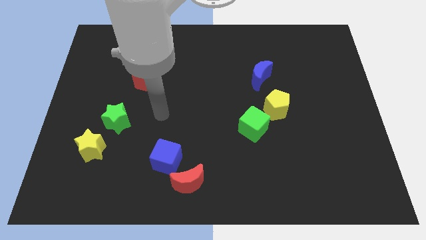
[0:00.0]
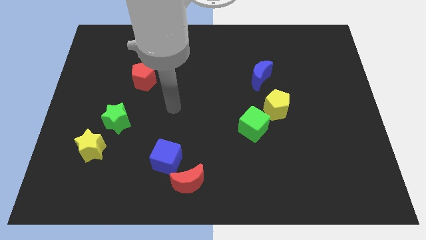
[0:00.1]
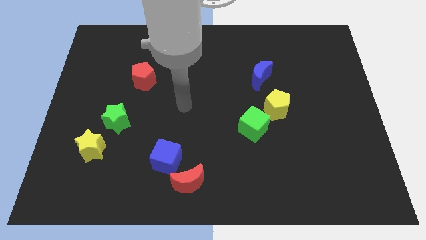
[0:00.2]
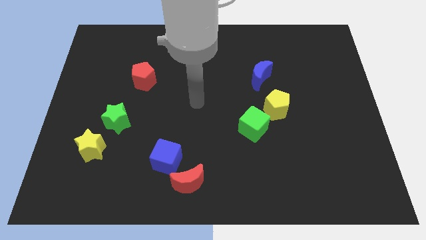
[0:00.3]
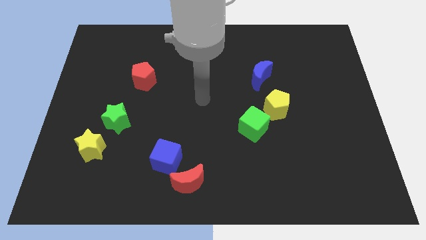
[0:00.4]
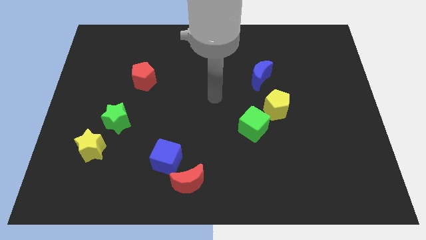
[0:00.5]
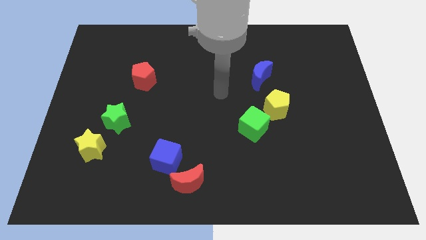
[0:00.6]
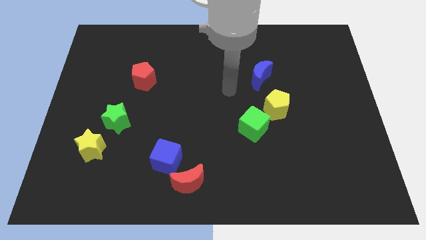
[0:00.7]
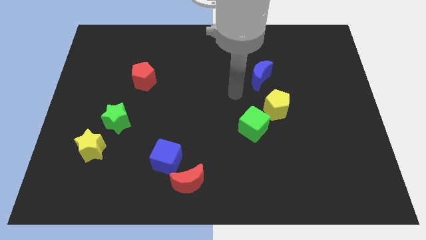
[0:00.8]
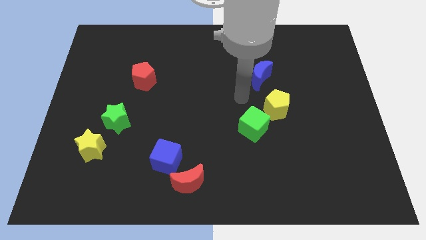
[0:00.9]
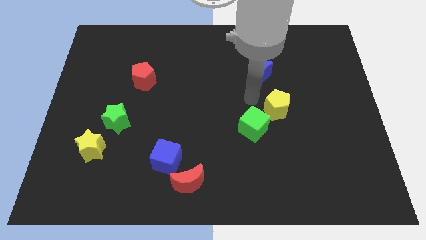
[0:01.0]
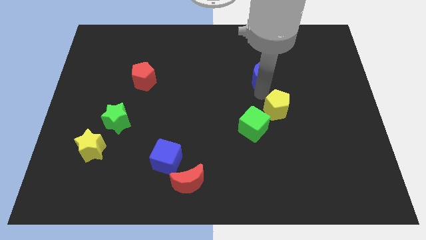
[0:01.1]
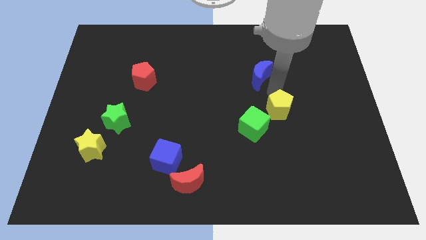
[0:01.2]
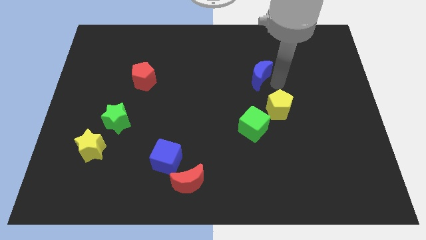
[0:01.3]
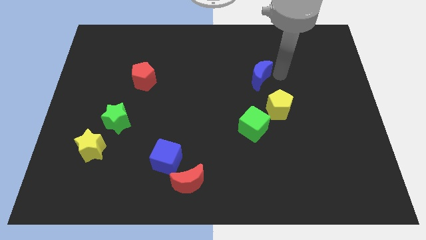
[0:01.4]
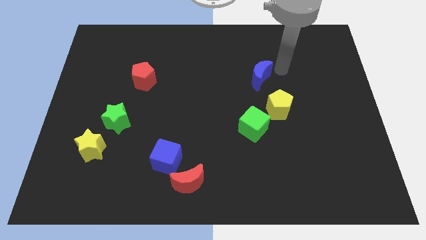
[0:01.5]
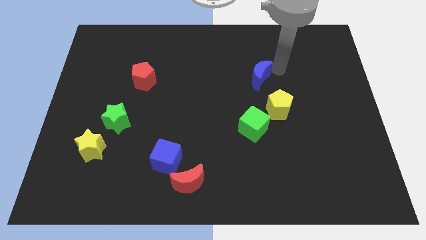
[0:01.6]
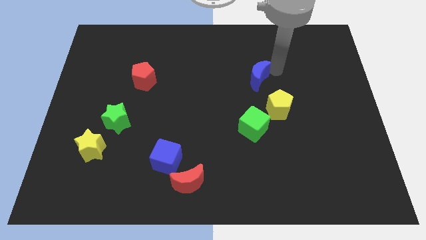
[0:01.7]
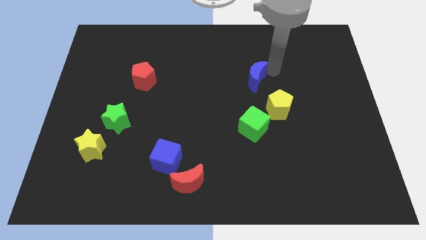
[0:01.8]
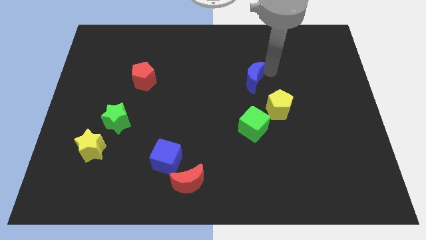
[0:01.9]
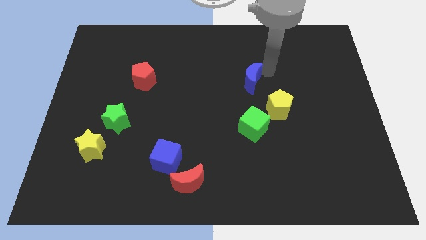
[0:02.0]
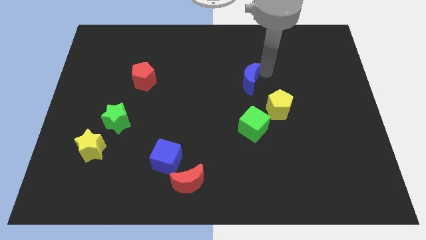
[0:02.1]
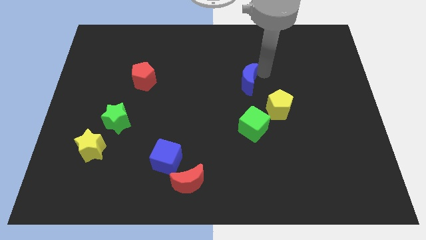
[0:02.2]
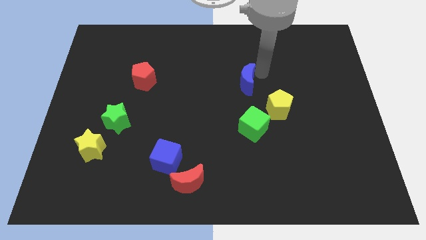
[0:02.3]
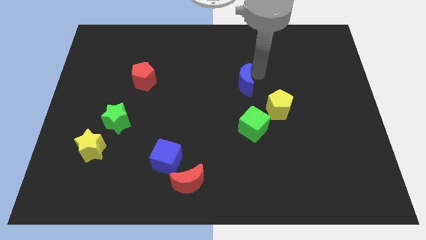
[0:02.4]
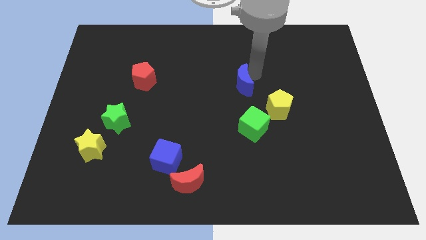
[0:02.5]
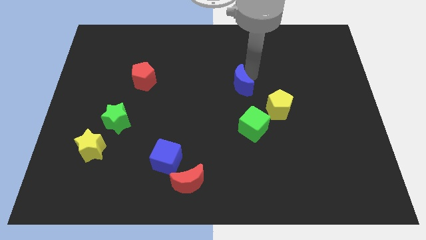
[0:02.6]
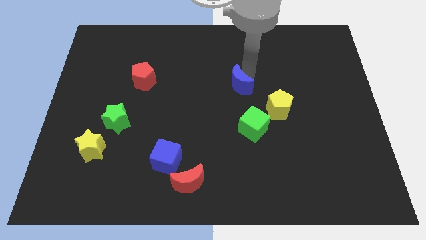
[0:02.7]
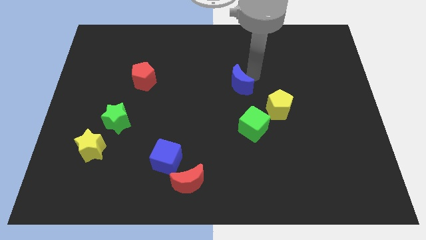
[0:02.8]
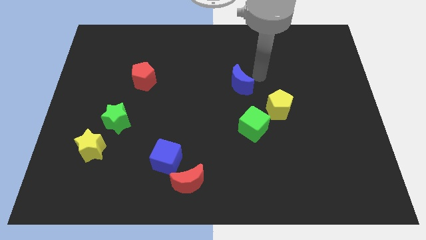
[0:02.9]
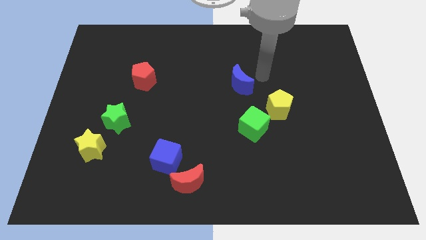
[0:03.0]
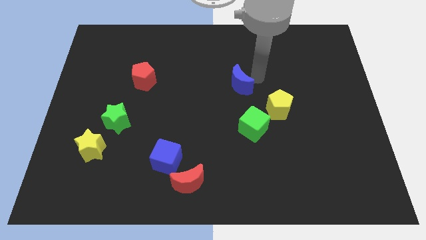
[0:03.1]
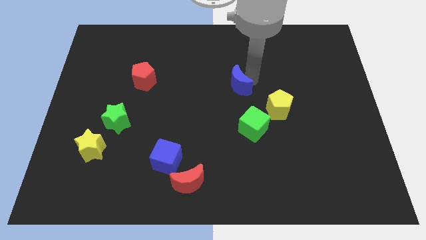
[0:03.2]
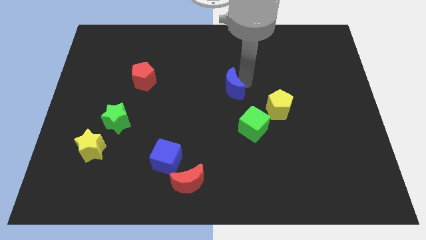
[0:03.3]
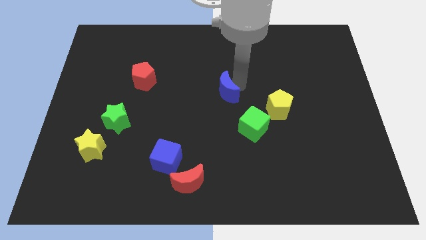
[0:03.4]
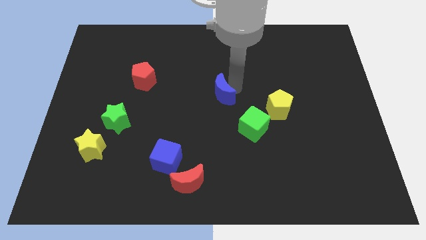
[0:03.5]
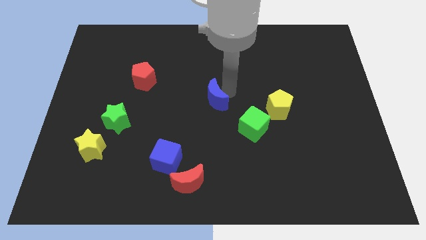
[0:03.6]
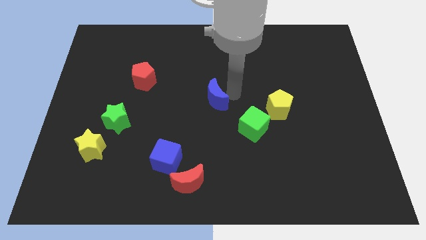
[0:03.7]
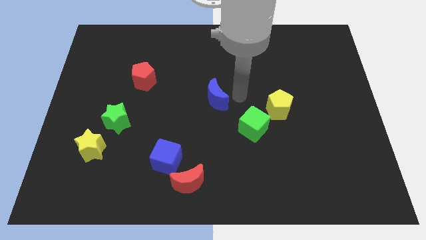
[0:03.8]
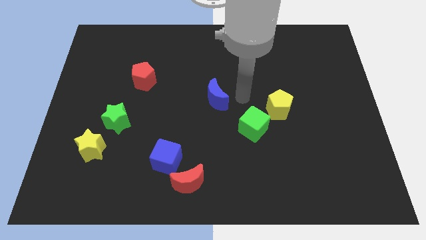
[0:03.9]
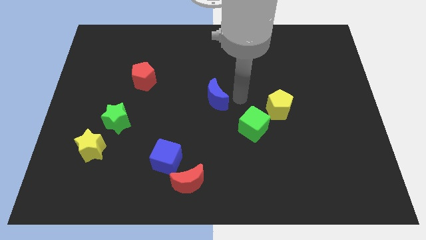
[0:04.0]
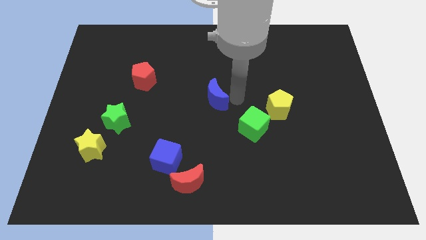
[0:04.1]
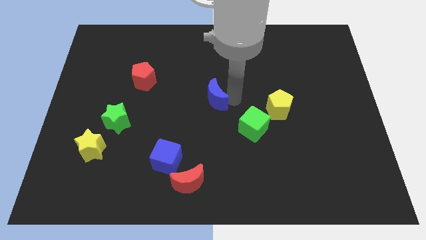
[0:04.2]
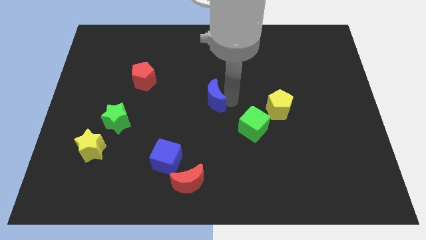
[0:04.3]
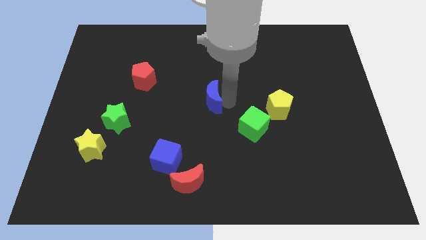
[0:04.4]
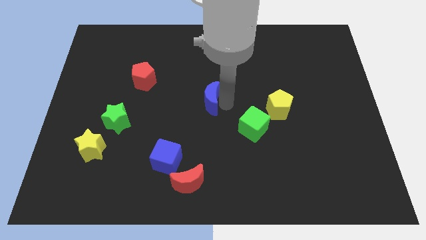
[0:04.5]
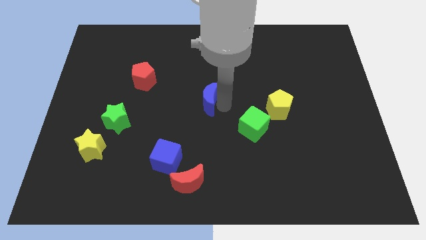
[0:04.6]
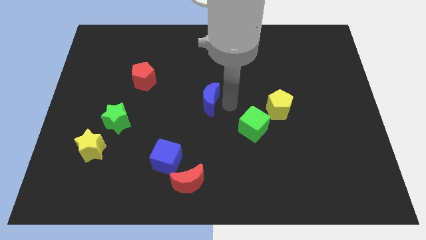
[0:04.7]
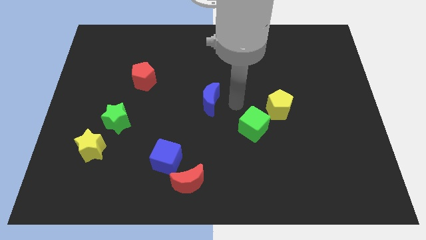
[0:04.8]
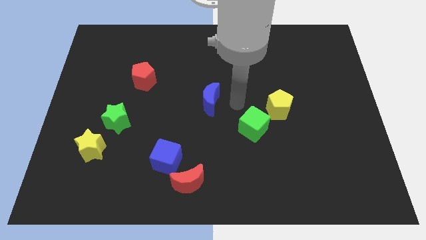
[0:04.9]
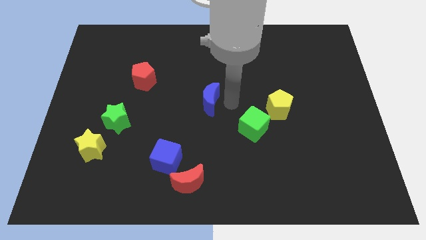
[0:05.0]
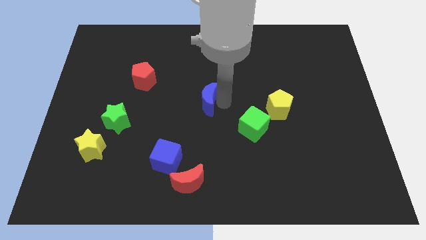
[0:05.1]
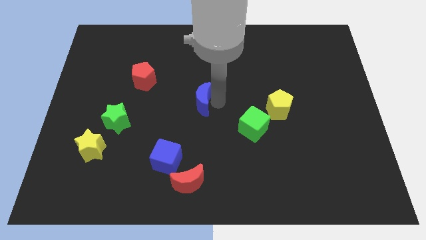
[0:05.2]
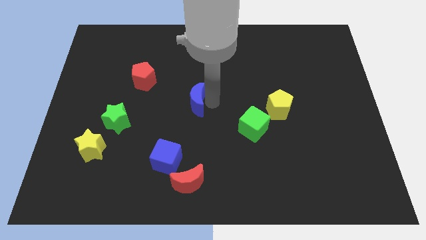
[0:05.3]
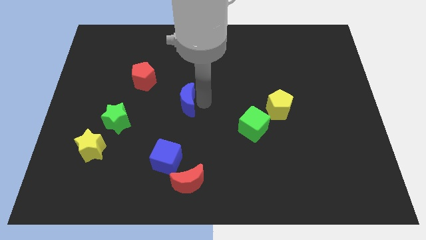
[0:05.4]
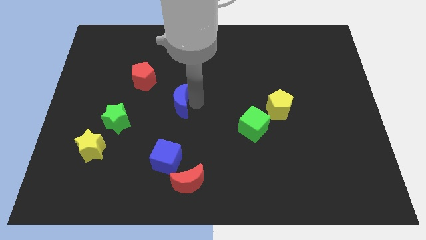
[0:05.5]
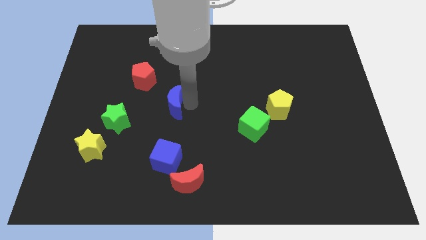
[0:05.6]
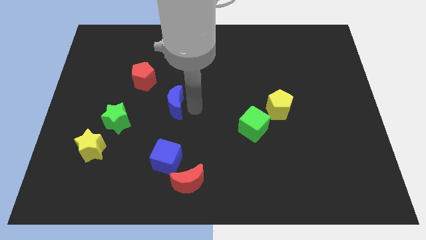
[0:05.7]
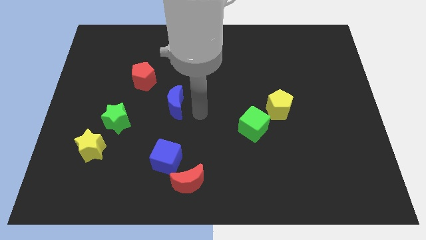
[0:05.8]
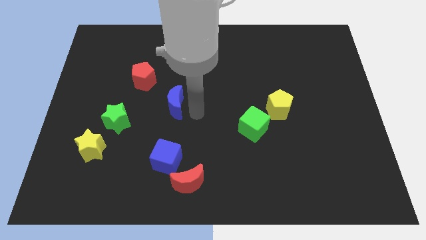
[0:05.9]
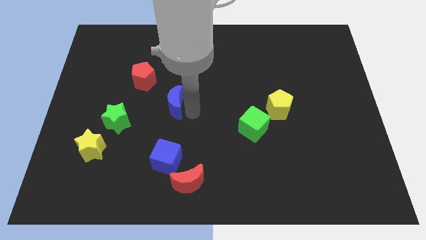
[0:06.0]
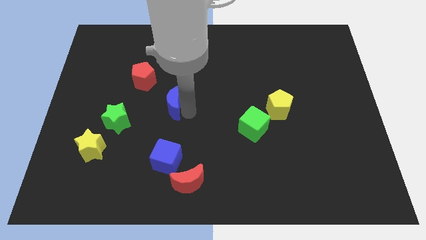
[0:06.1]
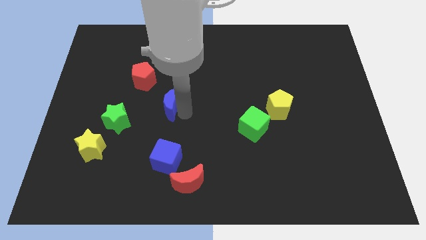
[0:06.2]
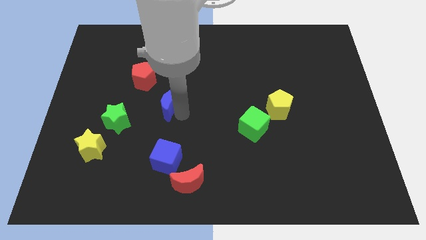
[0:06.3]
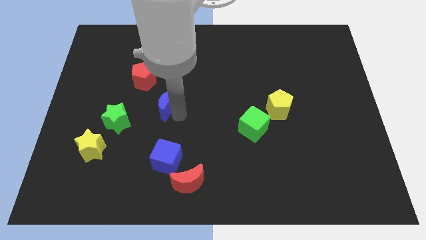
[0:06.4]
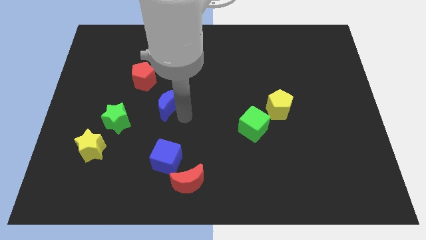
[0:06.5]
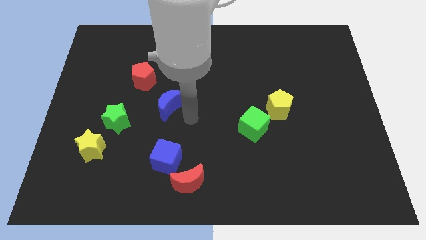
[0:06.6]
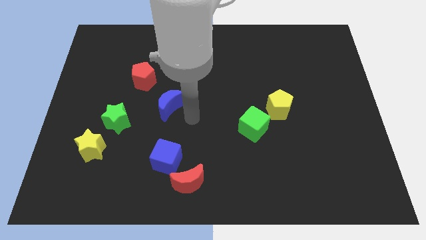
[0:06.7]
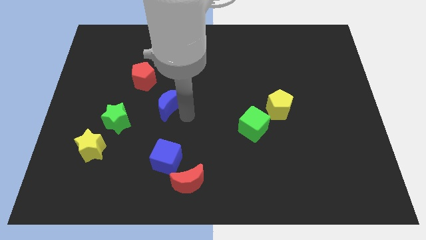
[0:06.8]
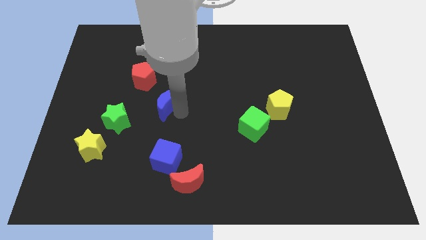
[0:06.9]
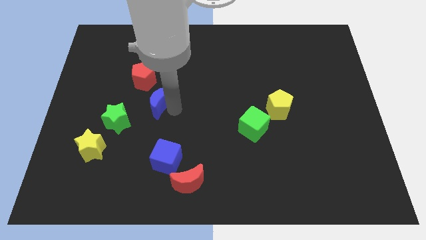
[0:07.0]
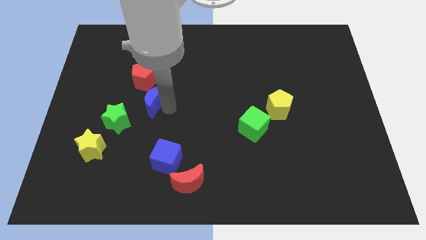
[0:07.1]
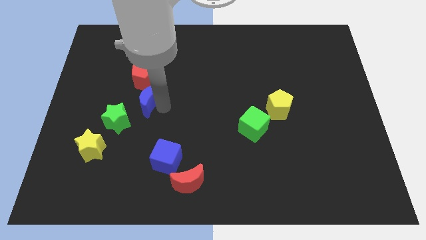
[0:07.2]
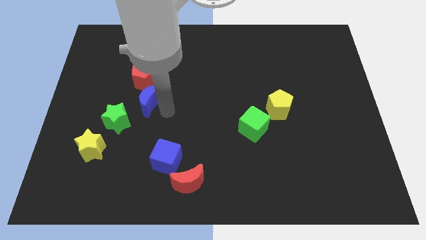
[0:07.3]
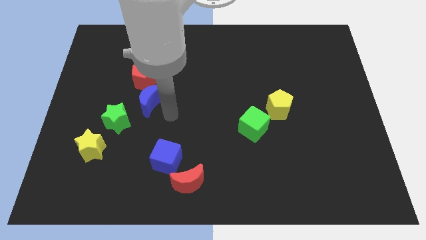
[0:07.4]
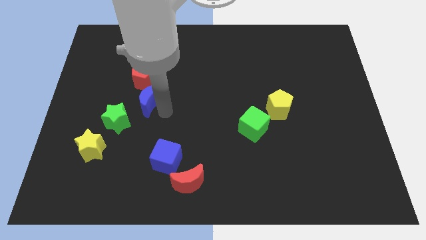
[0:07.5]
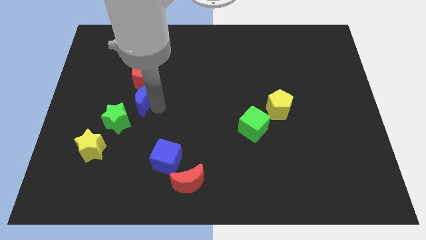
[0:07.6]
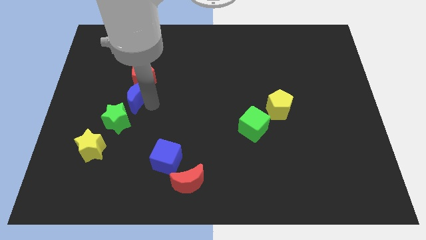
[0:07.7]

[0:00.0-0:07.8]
push the blue moon above the green star

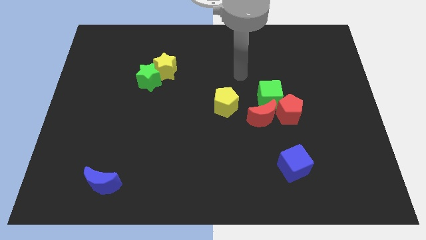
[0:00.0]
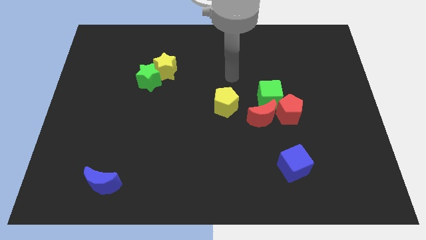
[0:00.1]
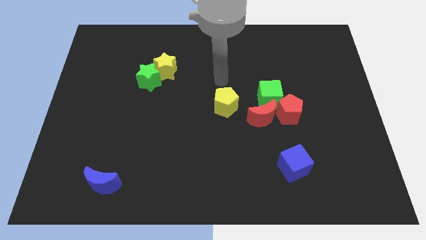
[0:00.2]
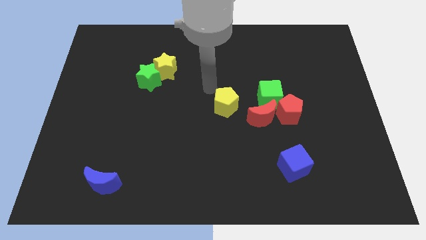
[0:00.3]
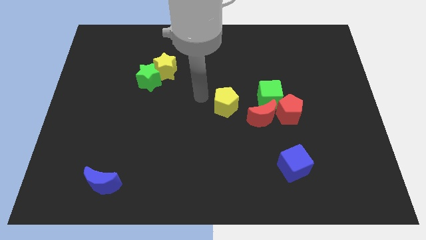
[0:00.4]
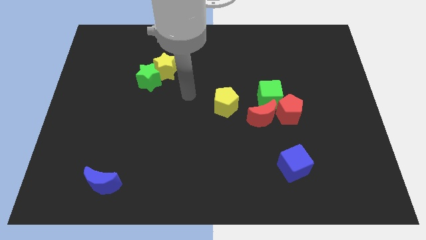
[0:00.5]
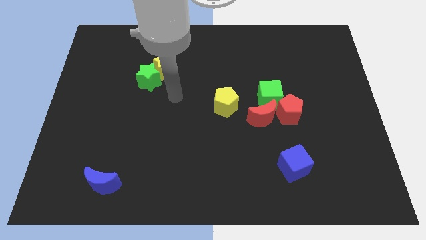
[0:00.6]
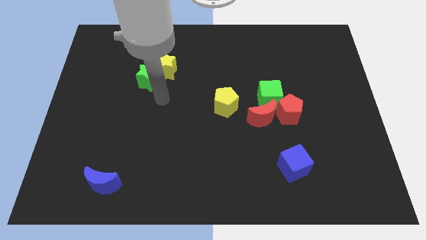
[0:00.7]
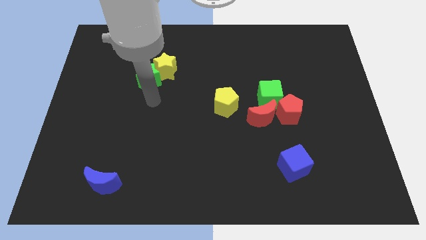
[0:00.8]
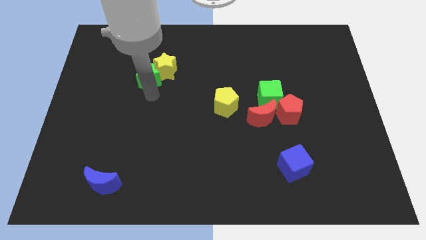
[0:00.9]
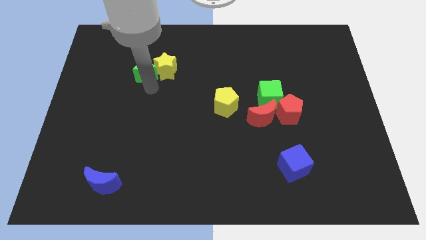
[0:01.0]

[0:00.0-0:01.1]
move the green star diagonally up and to the left of the yellow star
